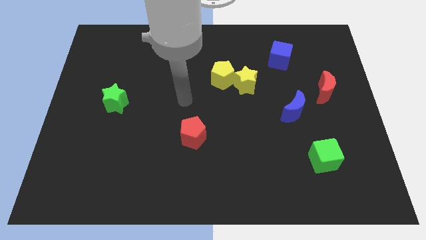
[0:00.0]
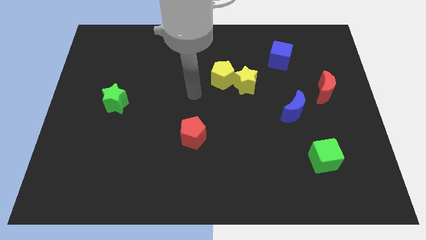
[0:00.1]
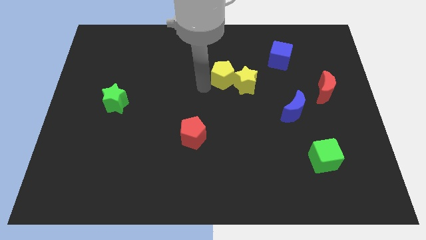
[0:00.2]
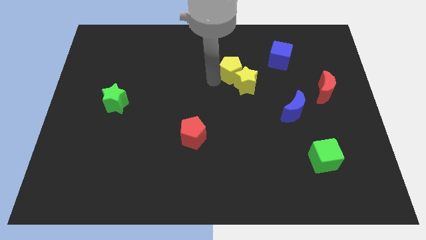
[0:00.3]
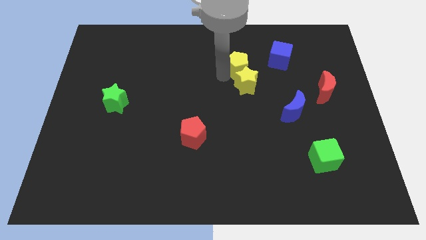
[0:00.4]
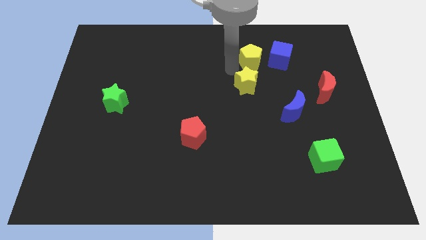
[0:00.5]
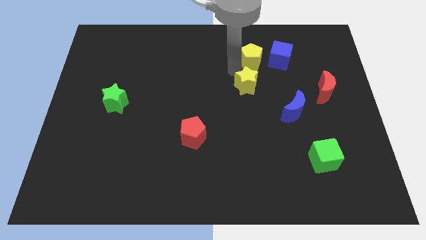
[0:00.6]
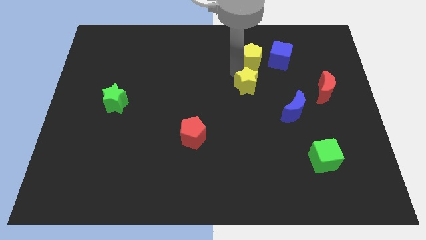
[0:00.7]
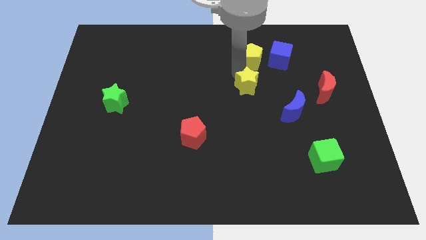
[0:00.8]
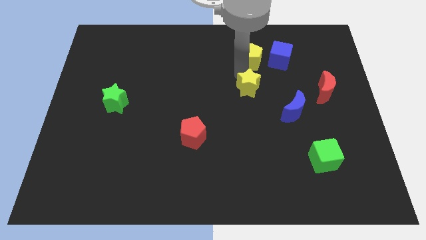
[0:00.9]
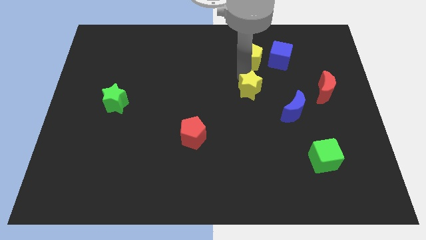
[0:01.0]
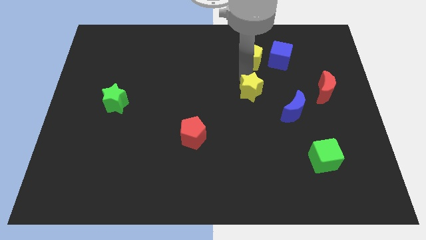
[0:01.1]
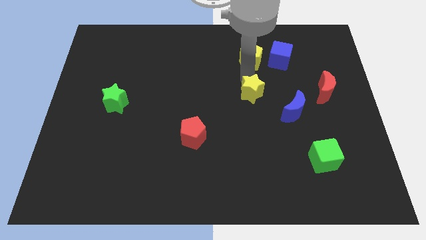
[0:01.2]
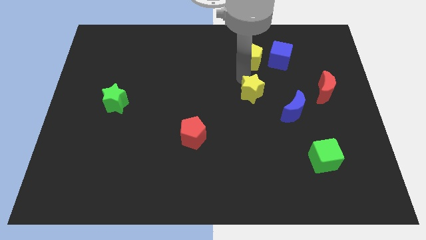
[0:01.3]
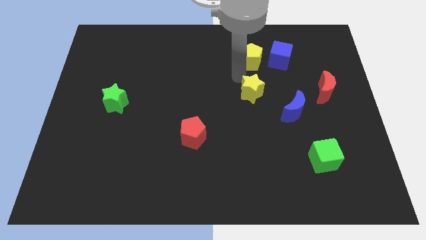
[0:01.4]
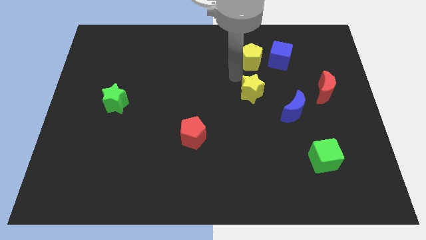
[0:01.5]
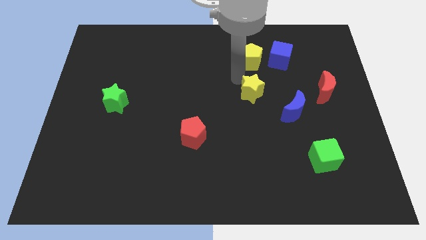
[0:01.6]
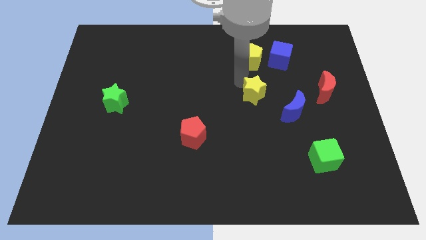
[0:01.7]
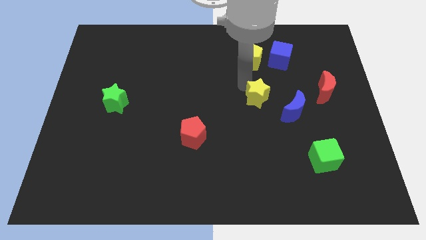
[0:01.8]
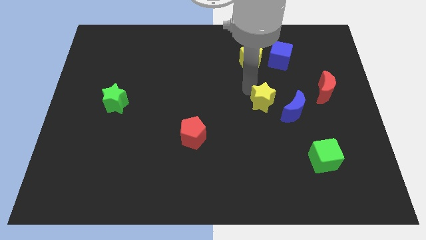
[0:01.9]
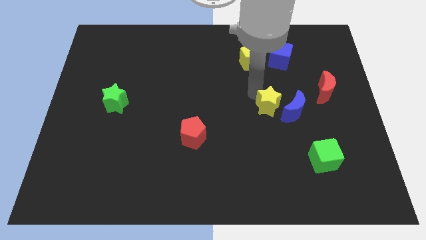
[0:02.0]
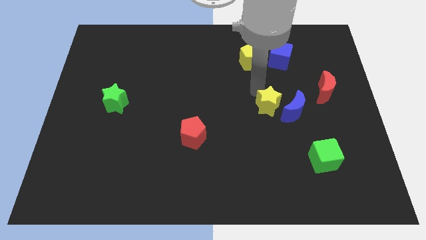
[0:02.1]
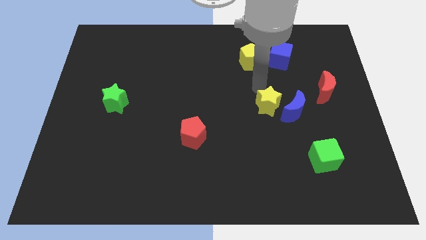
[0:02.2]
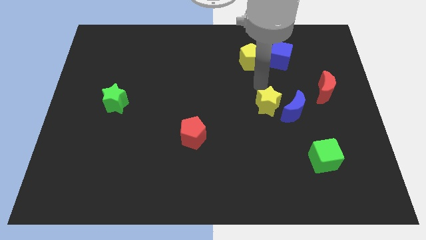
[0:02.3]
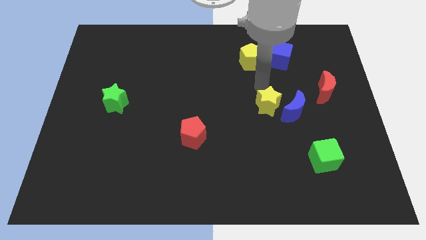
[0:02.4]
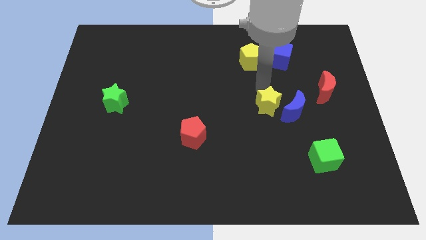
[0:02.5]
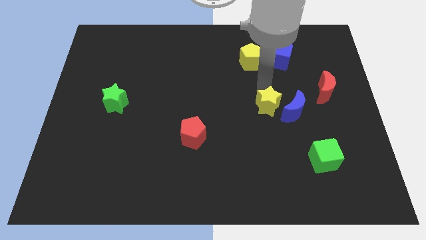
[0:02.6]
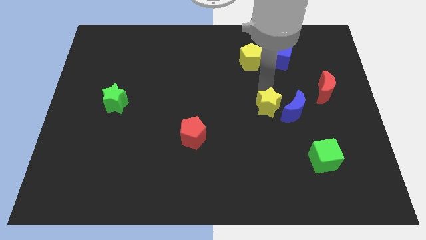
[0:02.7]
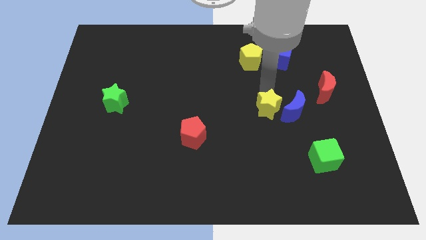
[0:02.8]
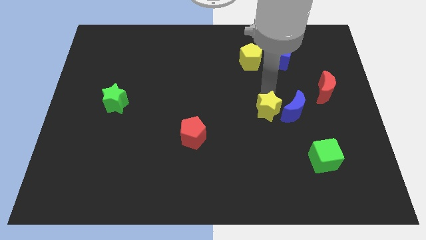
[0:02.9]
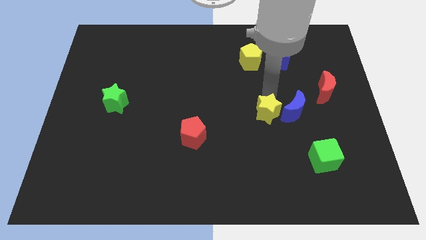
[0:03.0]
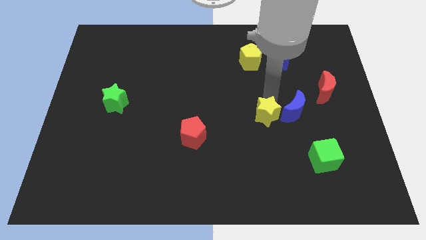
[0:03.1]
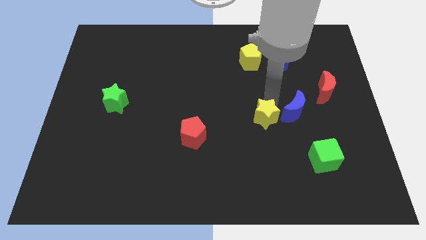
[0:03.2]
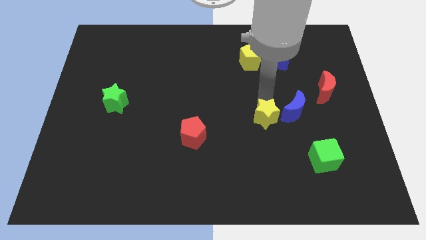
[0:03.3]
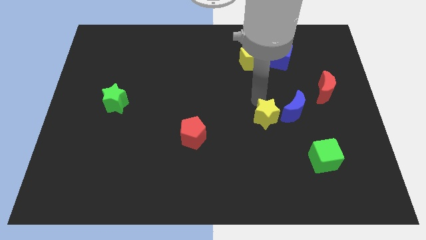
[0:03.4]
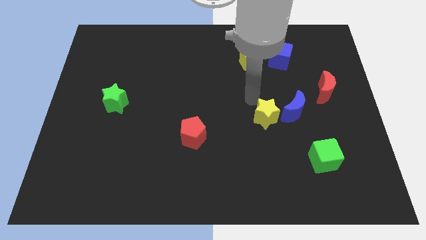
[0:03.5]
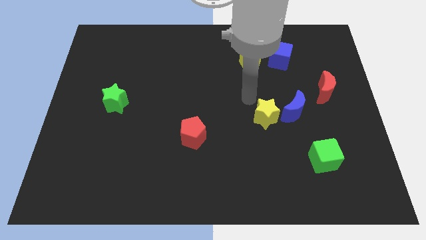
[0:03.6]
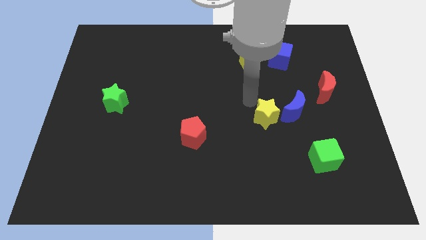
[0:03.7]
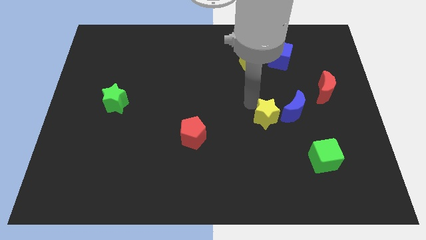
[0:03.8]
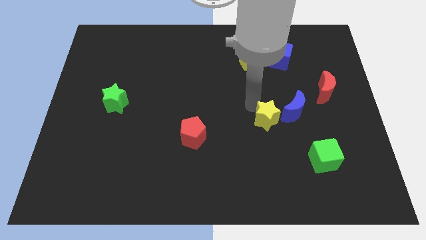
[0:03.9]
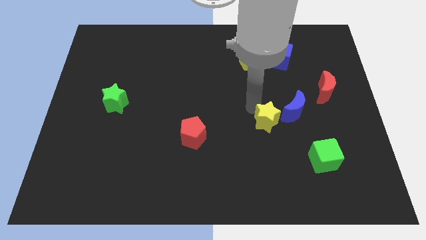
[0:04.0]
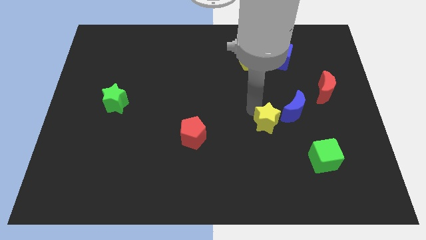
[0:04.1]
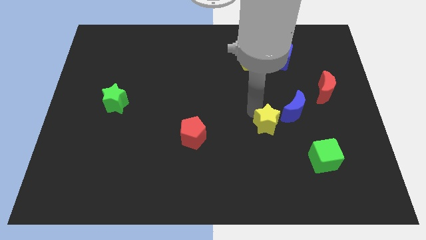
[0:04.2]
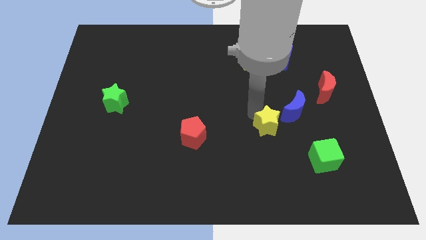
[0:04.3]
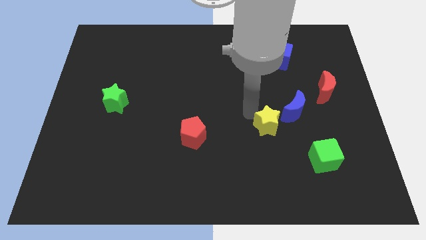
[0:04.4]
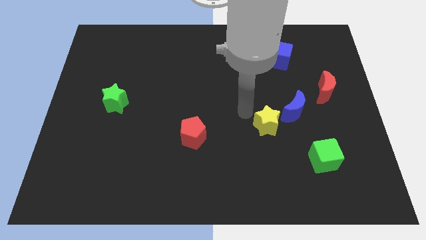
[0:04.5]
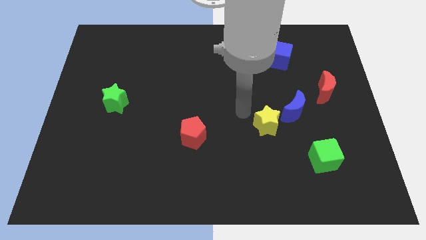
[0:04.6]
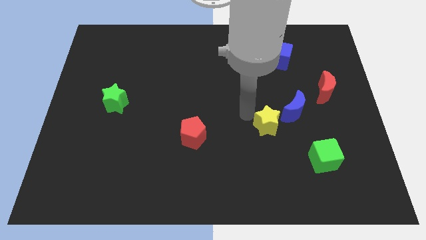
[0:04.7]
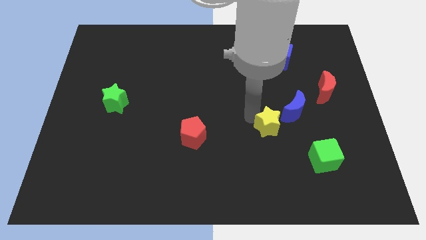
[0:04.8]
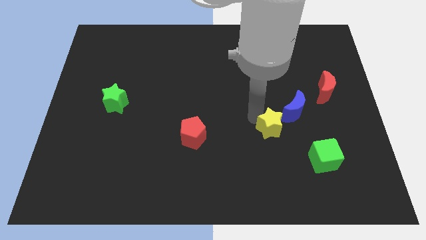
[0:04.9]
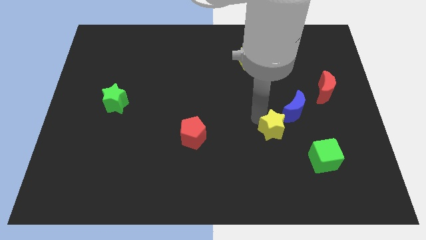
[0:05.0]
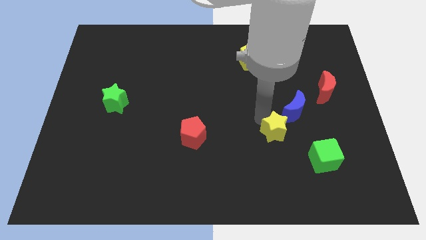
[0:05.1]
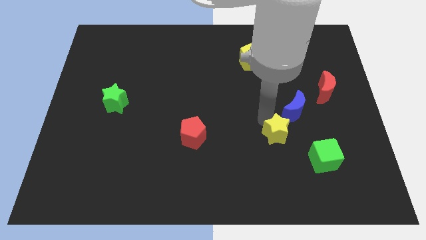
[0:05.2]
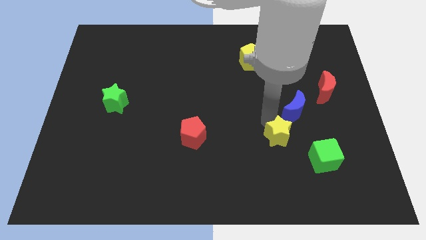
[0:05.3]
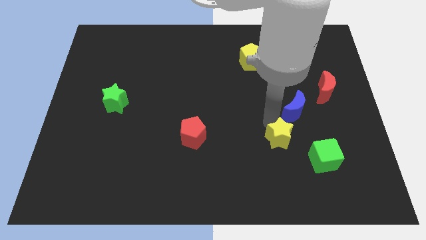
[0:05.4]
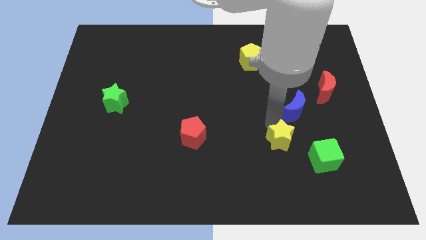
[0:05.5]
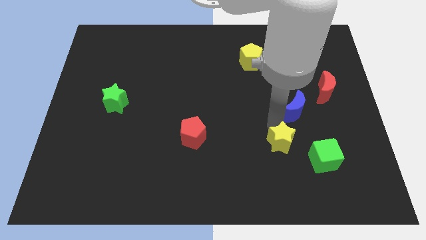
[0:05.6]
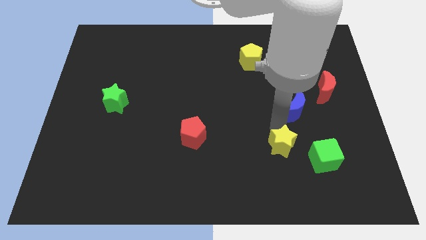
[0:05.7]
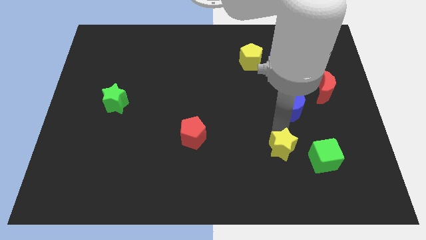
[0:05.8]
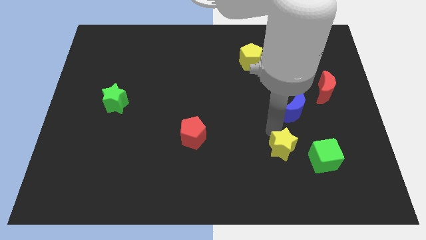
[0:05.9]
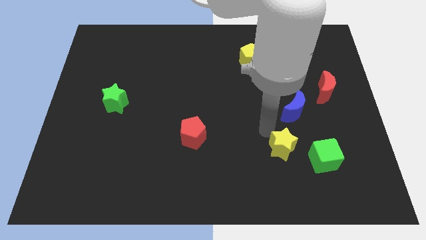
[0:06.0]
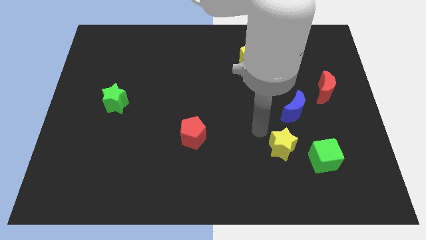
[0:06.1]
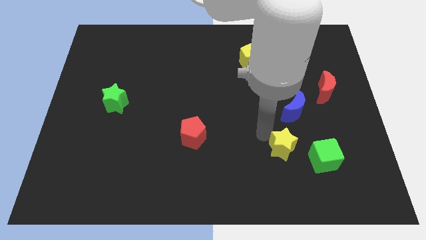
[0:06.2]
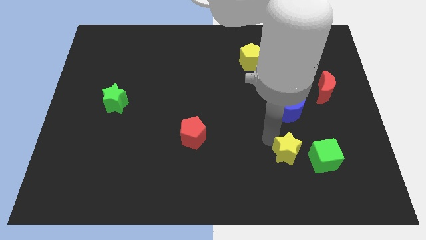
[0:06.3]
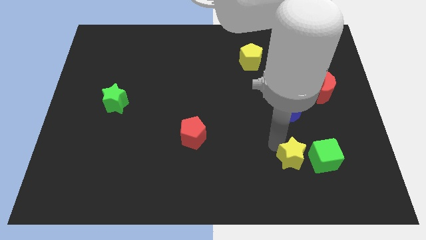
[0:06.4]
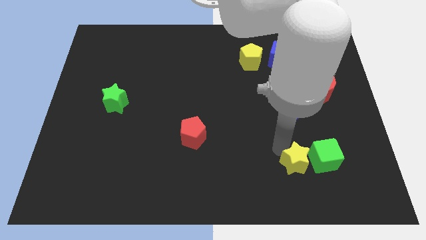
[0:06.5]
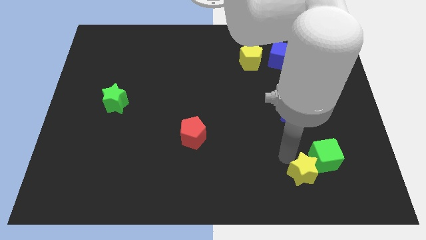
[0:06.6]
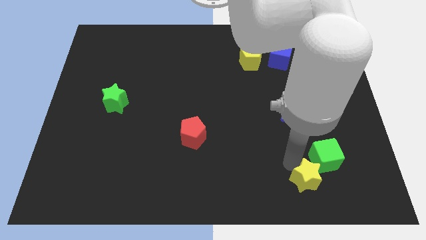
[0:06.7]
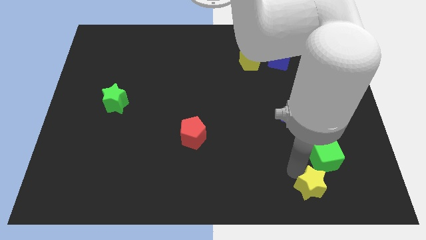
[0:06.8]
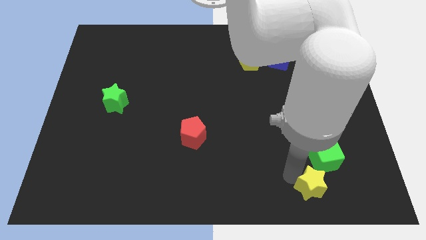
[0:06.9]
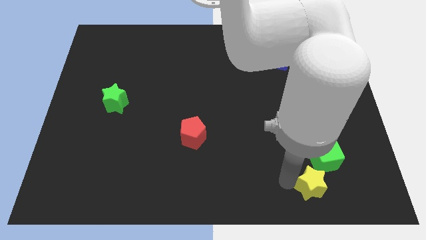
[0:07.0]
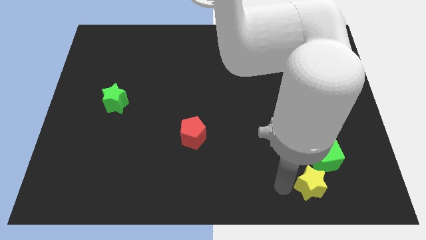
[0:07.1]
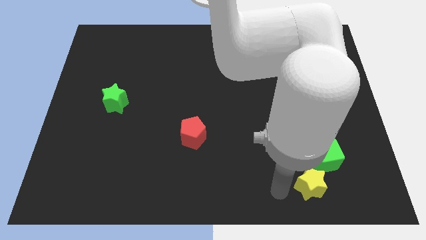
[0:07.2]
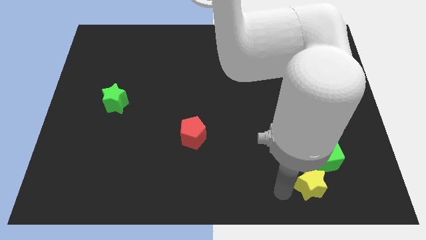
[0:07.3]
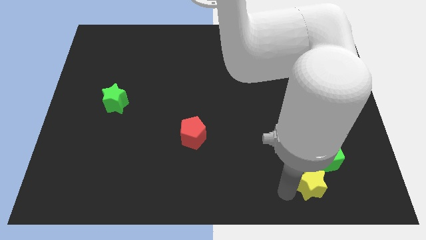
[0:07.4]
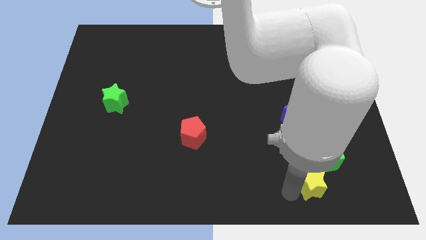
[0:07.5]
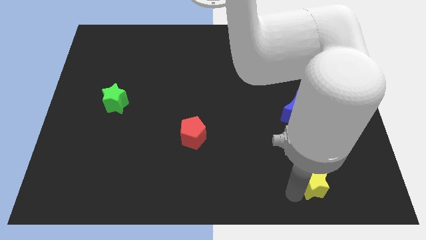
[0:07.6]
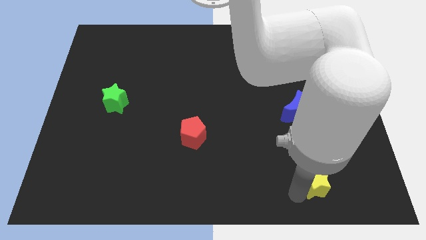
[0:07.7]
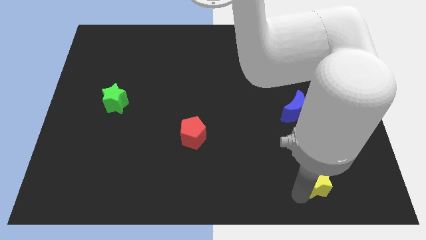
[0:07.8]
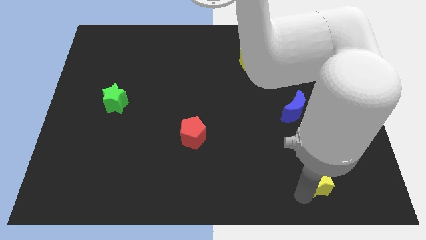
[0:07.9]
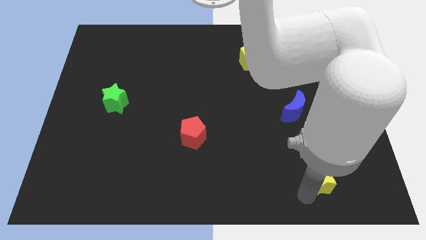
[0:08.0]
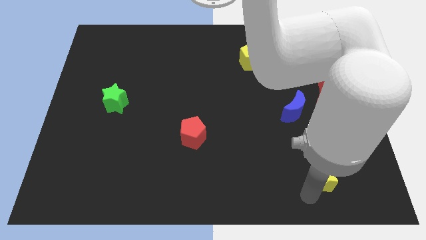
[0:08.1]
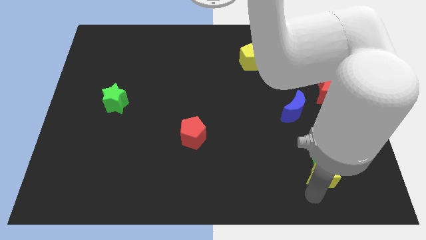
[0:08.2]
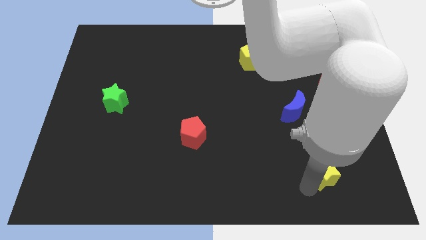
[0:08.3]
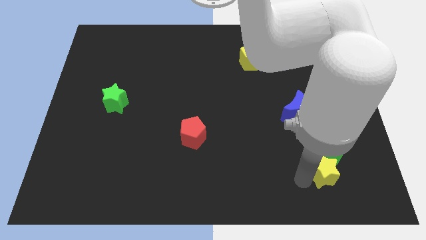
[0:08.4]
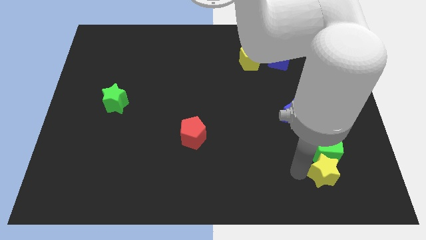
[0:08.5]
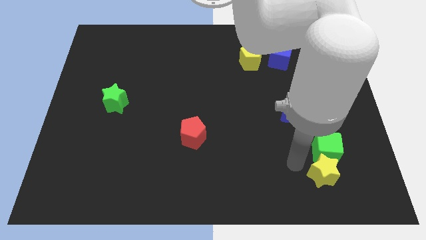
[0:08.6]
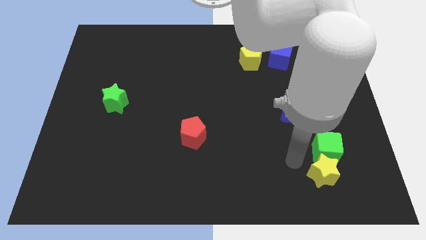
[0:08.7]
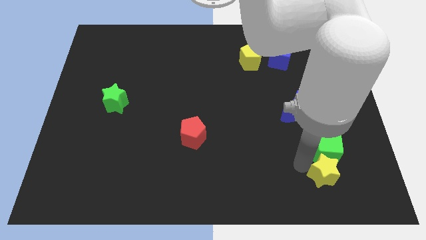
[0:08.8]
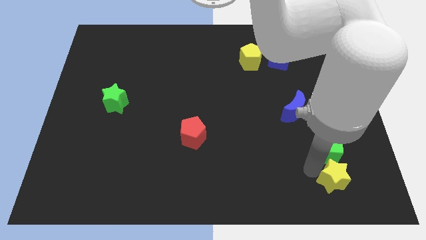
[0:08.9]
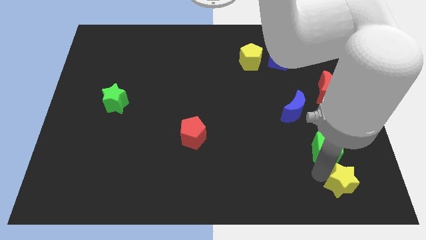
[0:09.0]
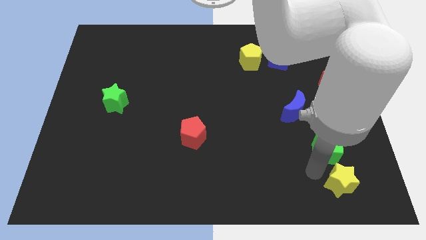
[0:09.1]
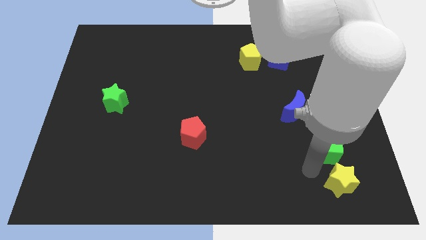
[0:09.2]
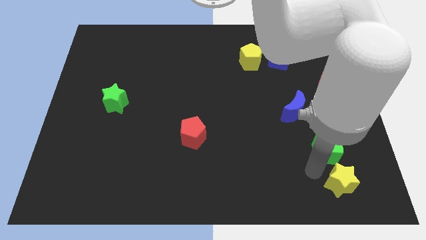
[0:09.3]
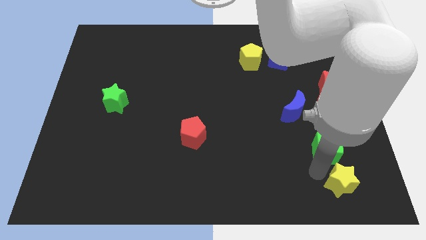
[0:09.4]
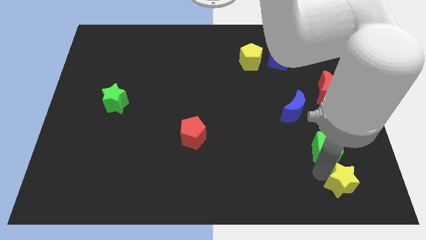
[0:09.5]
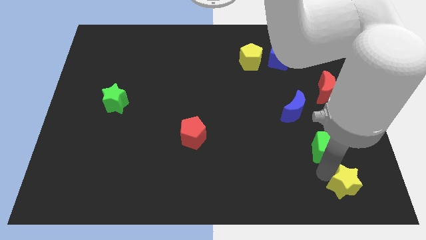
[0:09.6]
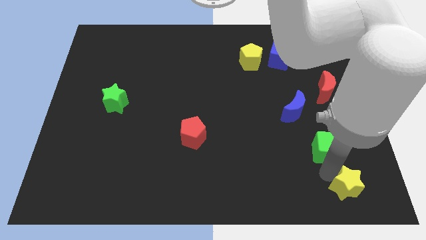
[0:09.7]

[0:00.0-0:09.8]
slide the yellow star to the bottom right
